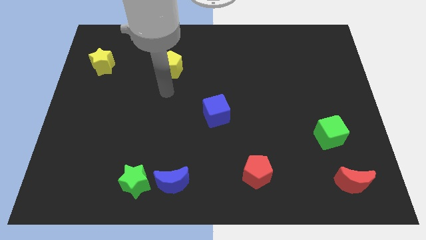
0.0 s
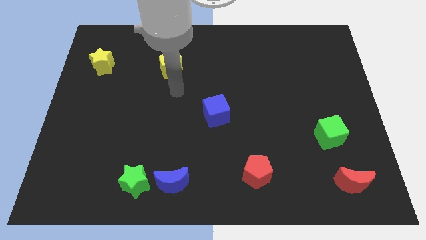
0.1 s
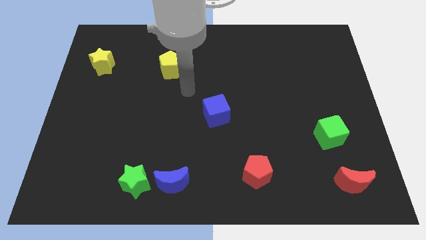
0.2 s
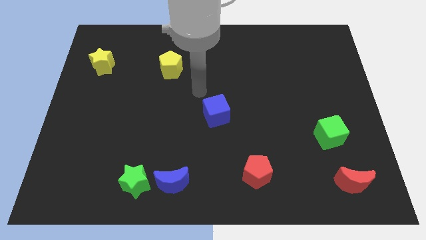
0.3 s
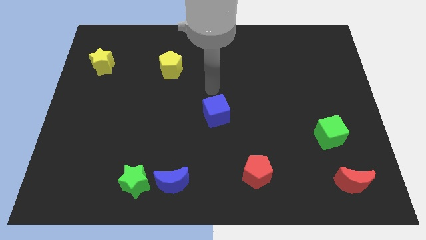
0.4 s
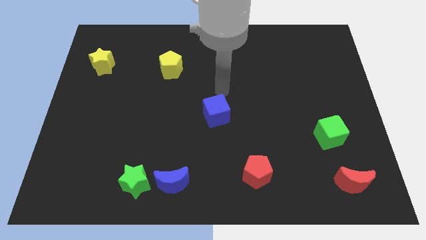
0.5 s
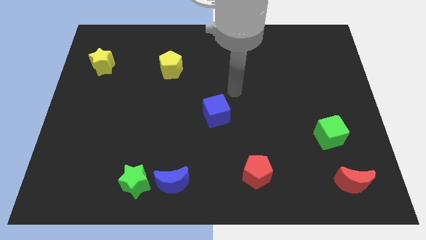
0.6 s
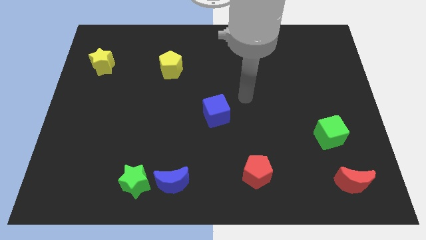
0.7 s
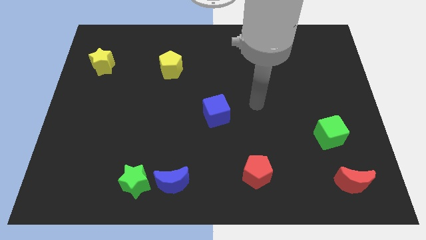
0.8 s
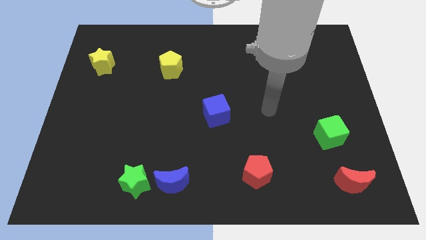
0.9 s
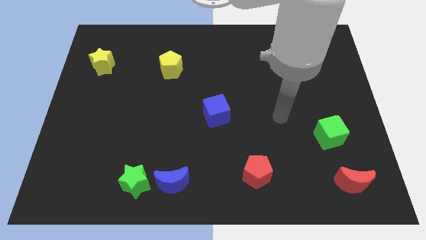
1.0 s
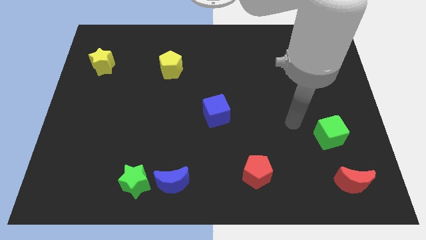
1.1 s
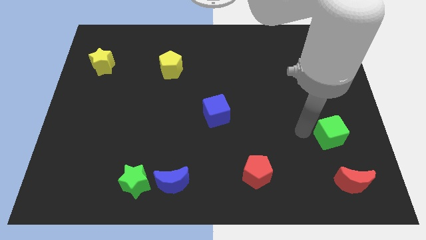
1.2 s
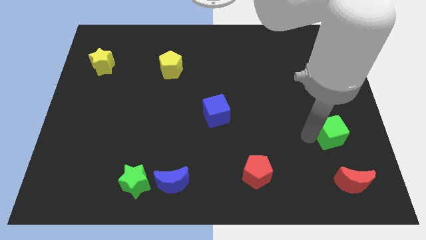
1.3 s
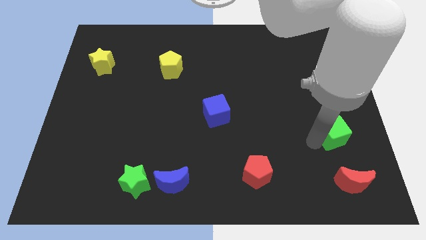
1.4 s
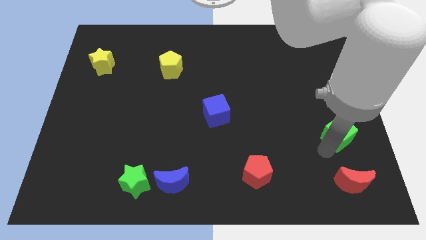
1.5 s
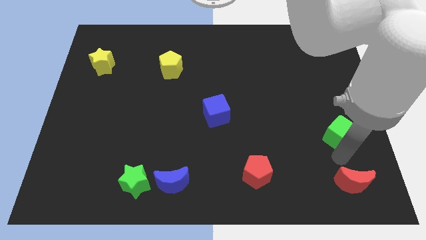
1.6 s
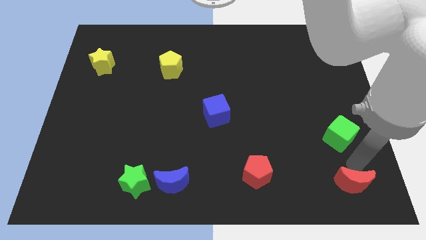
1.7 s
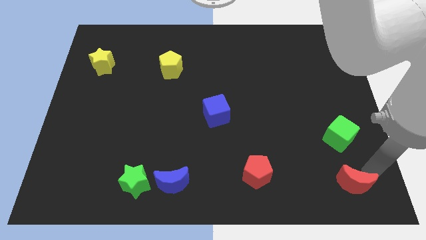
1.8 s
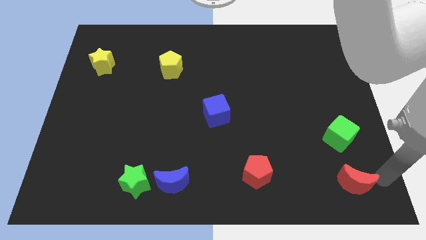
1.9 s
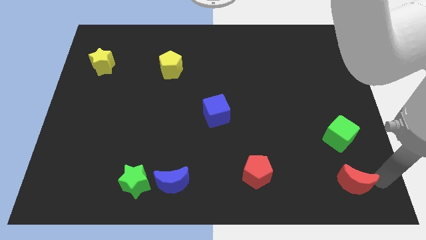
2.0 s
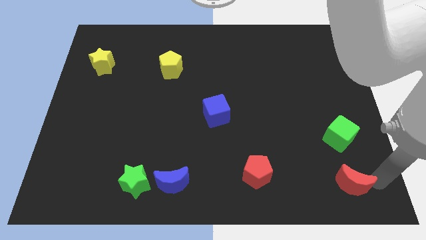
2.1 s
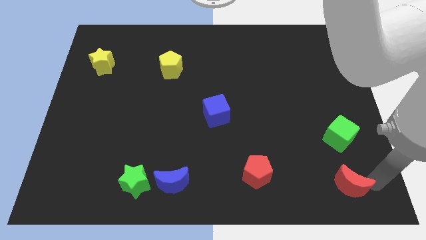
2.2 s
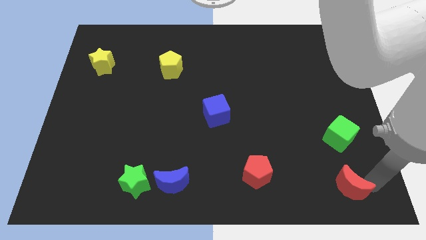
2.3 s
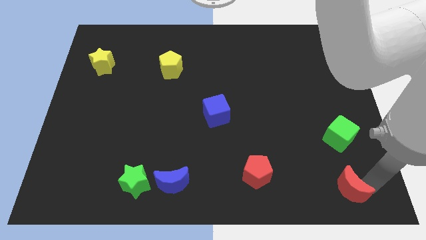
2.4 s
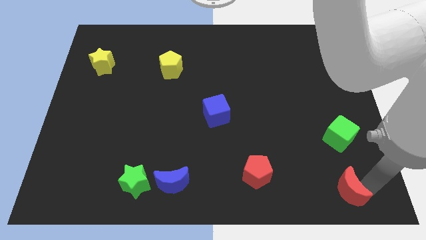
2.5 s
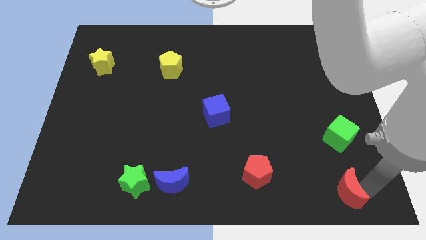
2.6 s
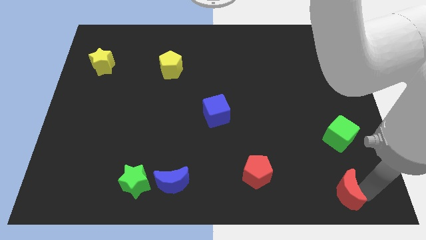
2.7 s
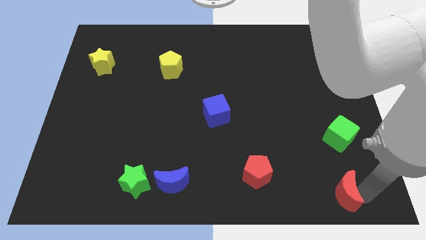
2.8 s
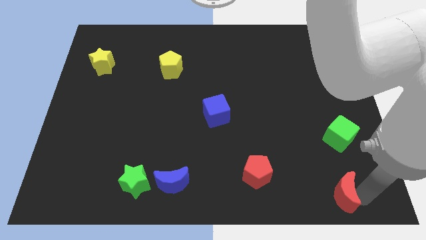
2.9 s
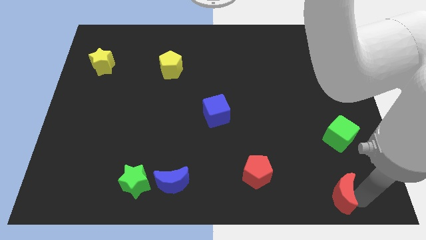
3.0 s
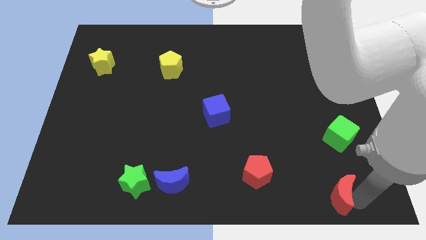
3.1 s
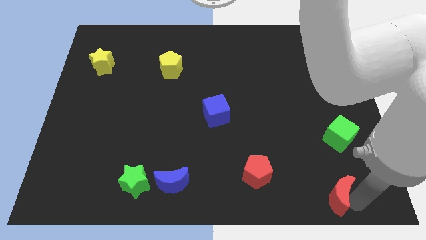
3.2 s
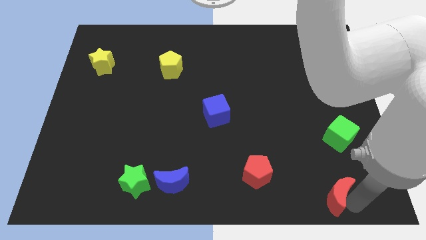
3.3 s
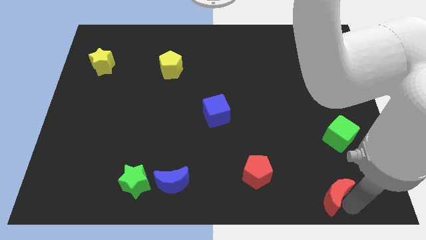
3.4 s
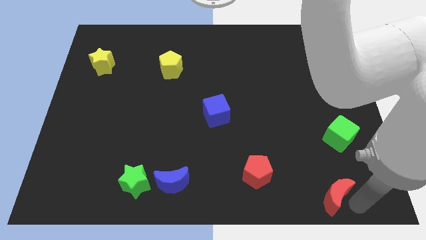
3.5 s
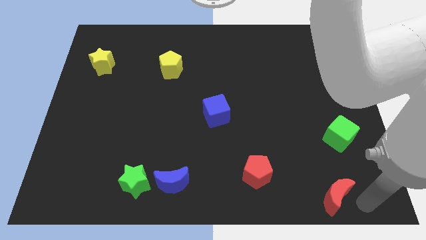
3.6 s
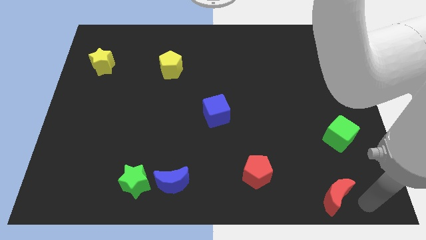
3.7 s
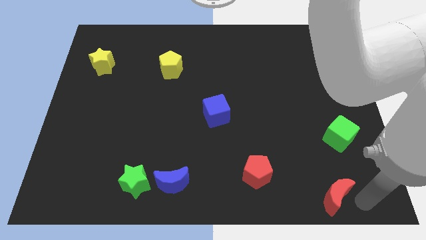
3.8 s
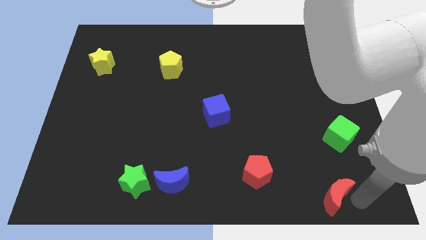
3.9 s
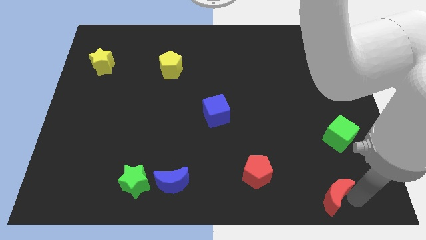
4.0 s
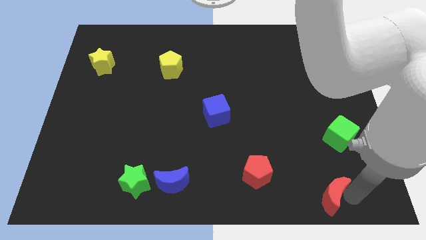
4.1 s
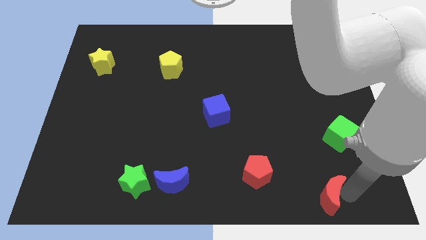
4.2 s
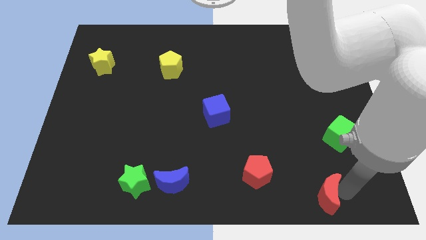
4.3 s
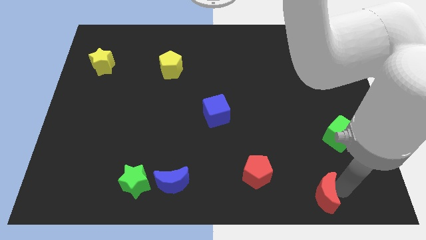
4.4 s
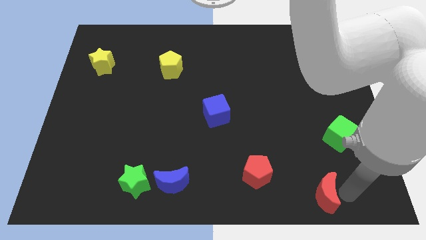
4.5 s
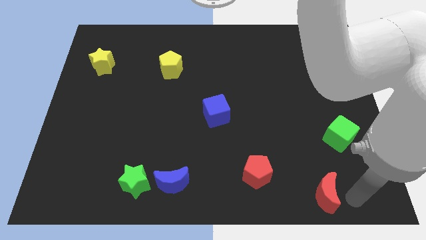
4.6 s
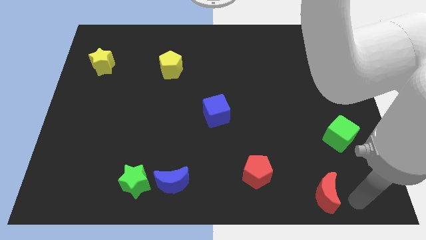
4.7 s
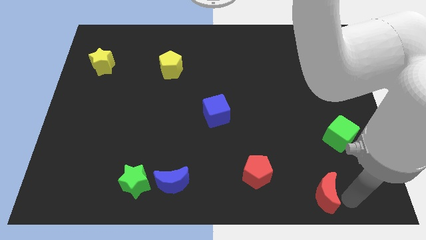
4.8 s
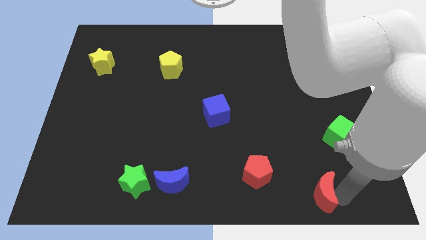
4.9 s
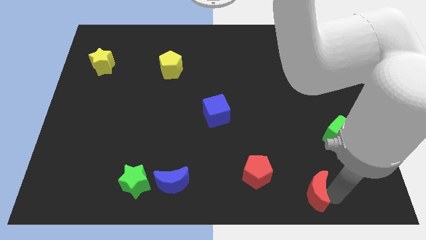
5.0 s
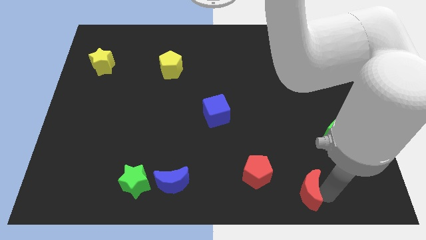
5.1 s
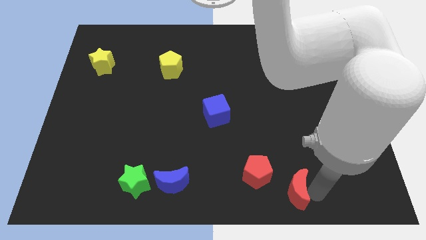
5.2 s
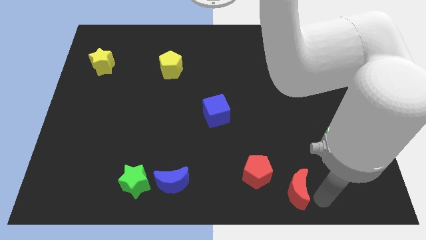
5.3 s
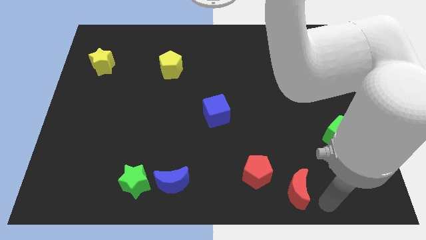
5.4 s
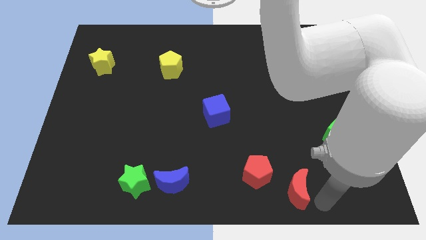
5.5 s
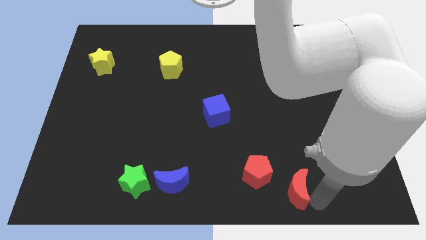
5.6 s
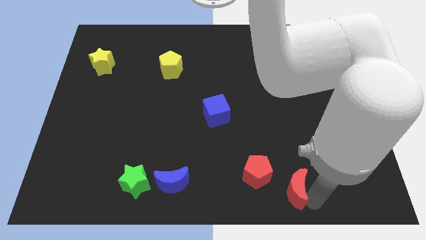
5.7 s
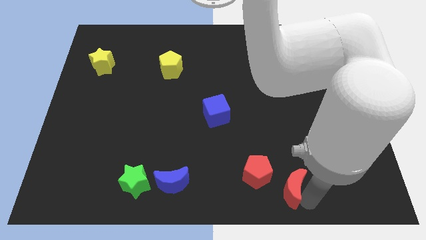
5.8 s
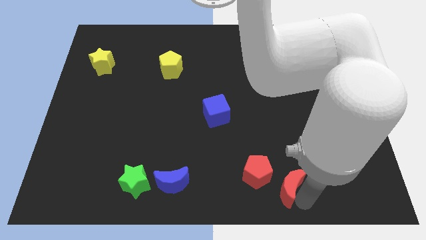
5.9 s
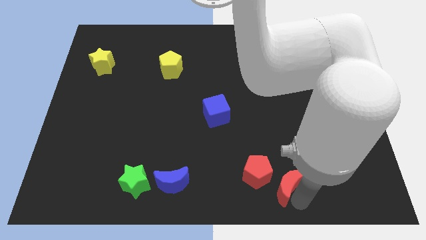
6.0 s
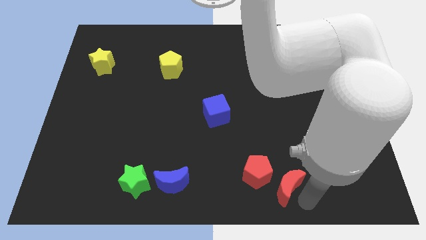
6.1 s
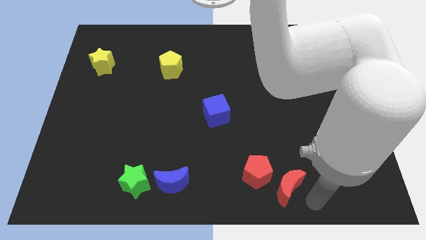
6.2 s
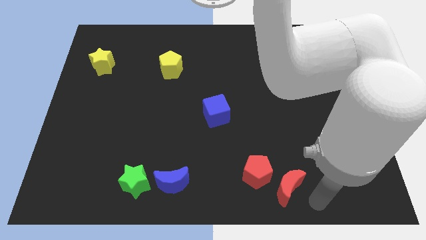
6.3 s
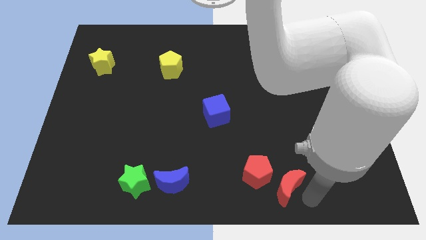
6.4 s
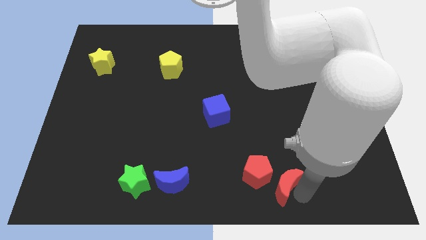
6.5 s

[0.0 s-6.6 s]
put the red moon towards the red pentagon

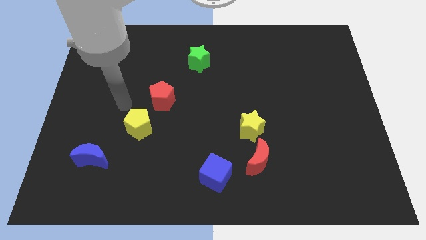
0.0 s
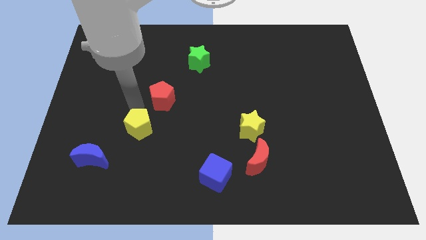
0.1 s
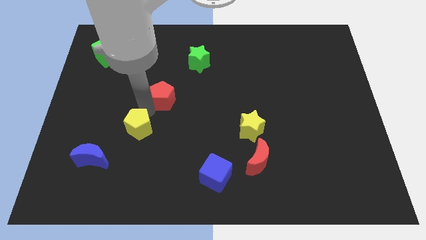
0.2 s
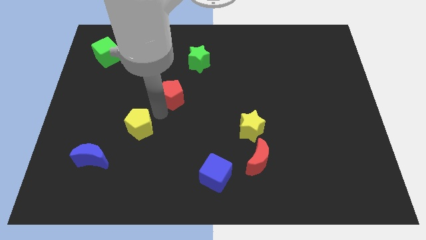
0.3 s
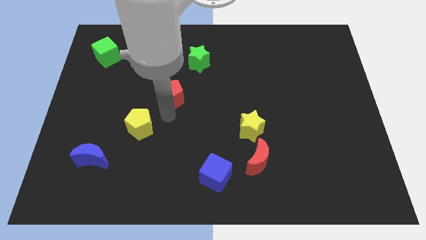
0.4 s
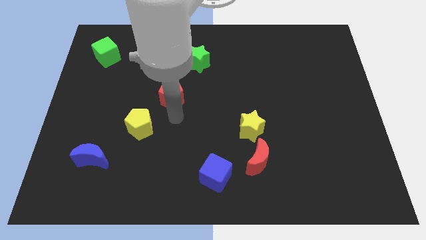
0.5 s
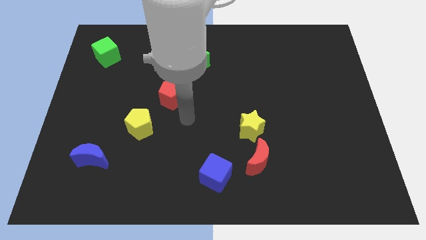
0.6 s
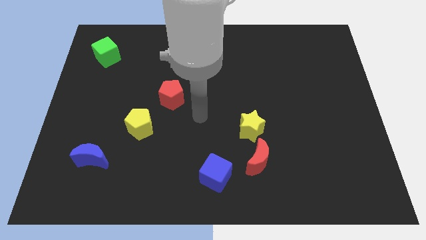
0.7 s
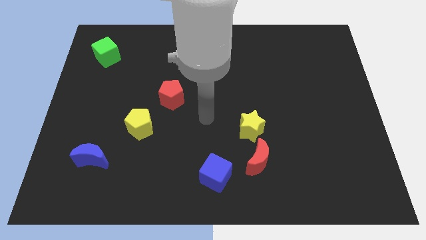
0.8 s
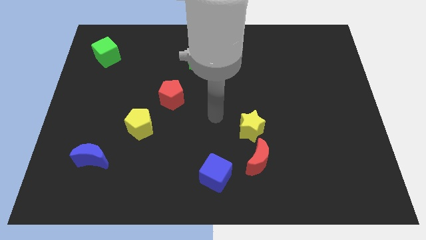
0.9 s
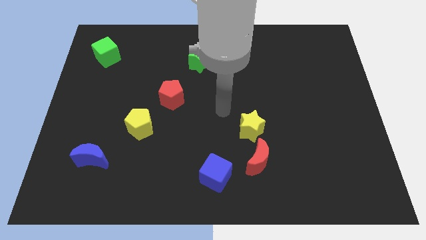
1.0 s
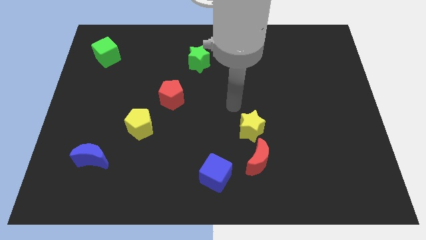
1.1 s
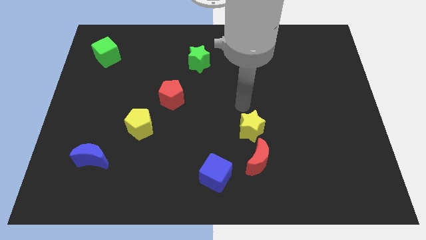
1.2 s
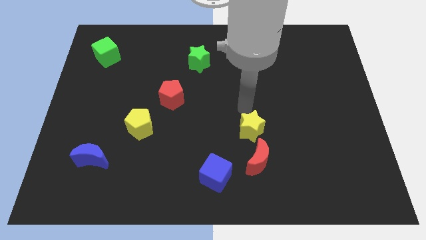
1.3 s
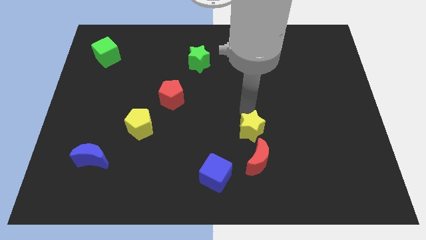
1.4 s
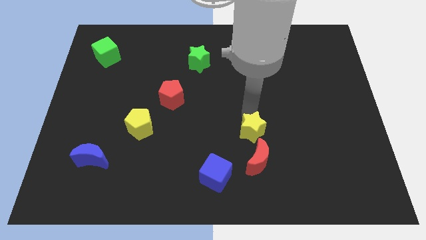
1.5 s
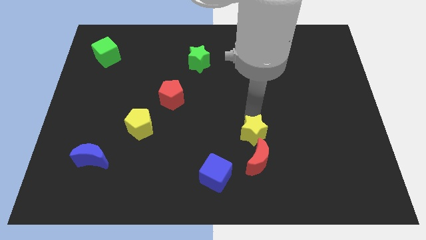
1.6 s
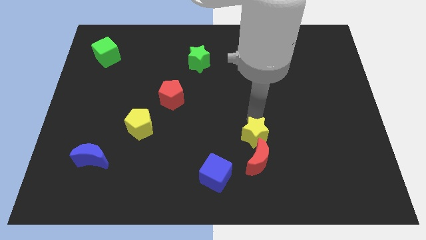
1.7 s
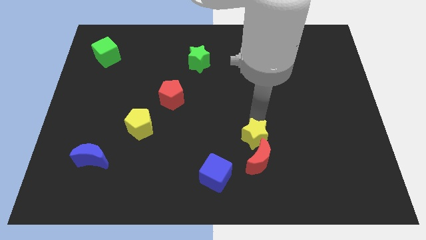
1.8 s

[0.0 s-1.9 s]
push the yellow star next to the red moon
